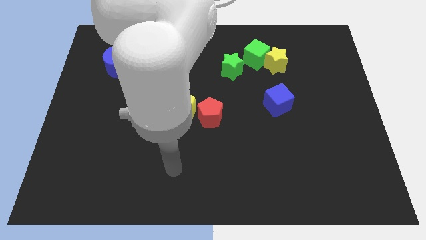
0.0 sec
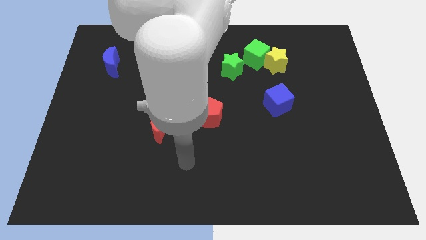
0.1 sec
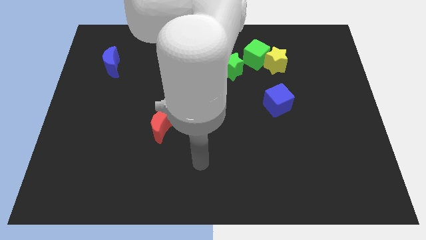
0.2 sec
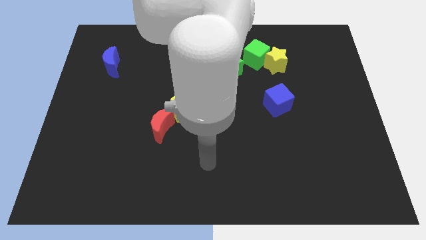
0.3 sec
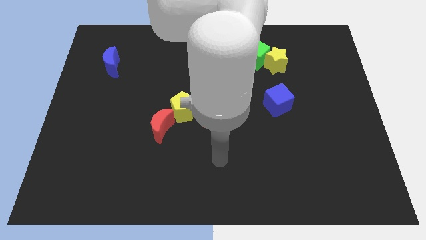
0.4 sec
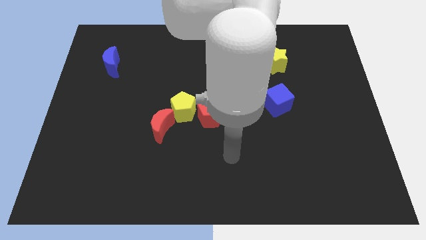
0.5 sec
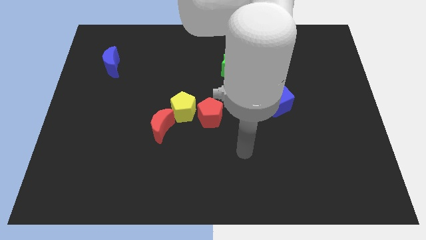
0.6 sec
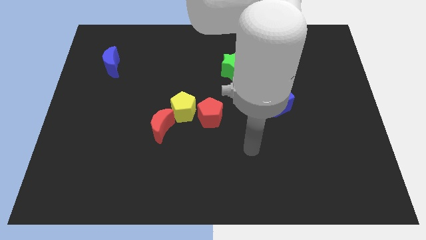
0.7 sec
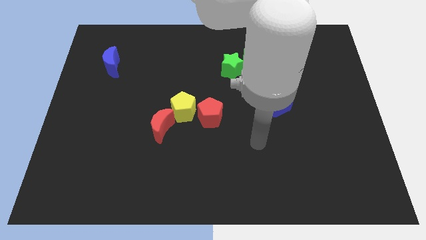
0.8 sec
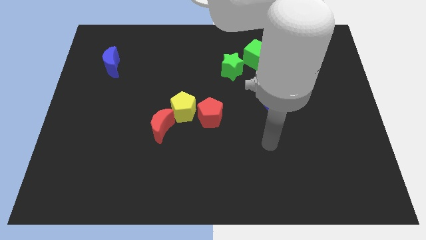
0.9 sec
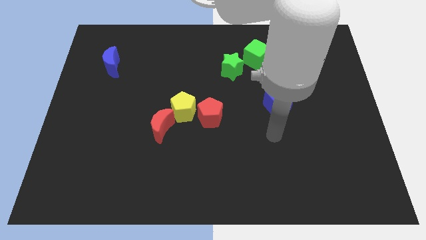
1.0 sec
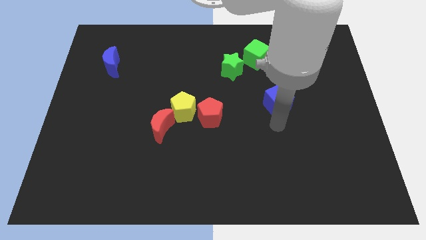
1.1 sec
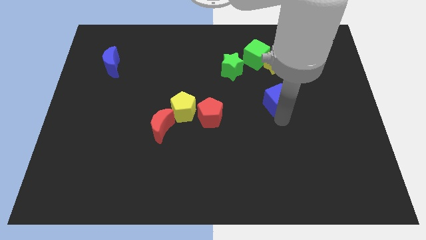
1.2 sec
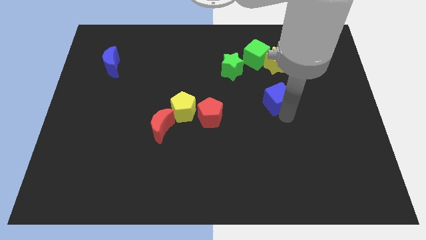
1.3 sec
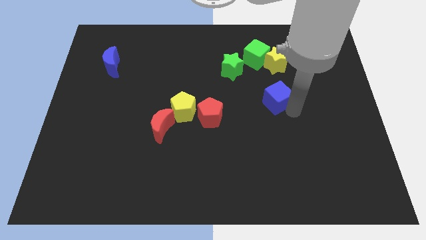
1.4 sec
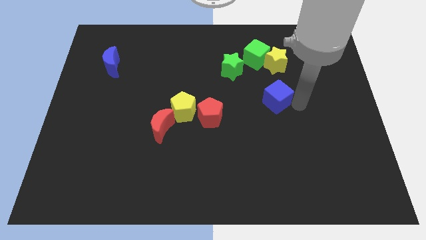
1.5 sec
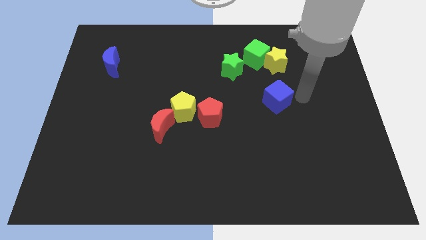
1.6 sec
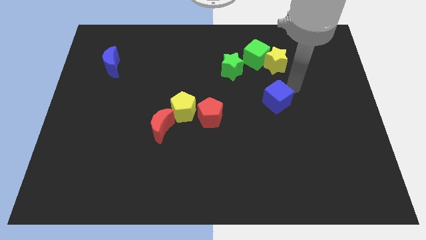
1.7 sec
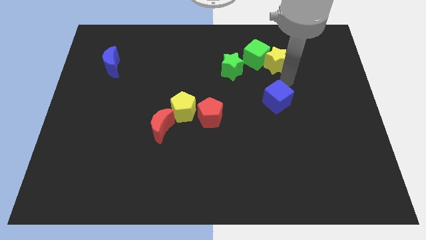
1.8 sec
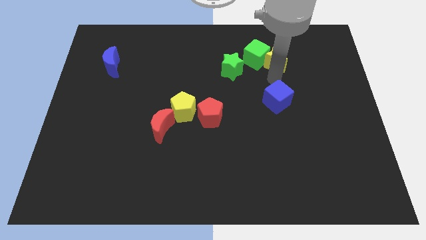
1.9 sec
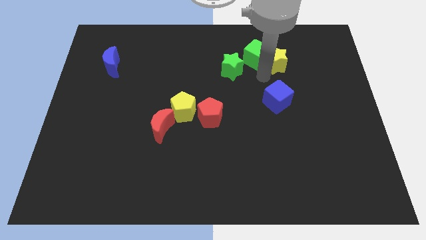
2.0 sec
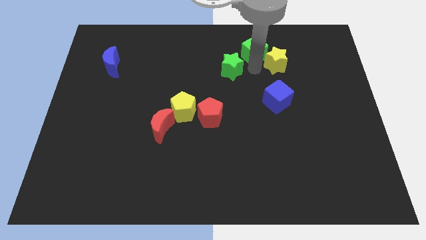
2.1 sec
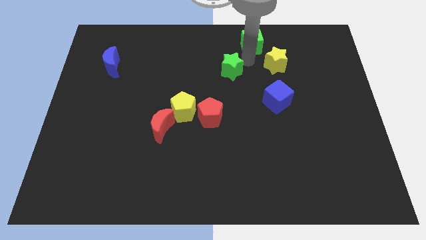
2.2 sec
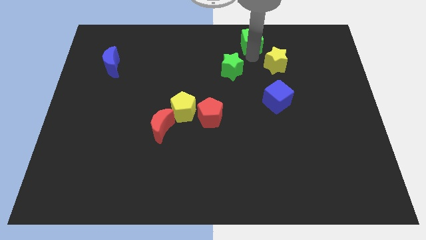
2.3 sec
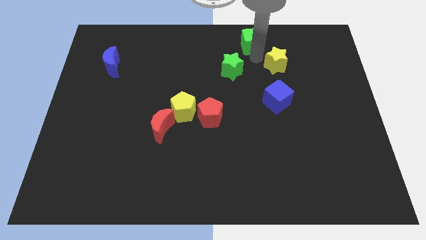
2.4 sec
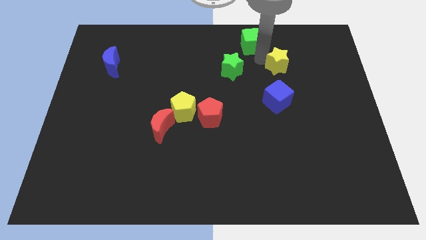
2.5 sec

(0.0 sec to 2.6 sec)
separate the yellow star from the green cube

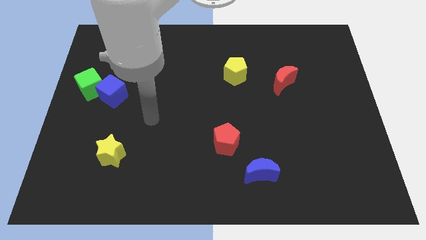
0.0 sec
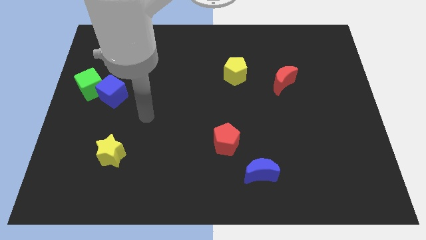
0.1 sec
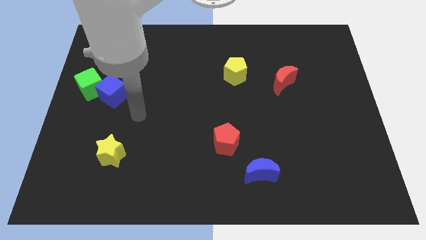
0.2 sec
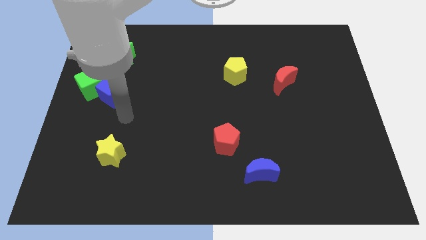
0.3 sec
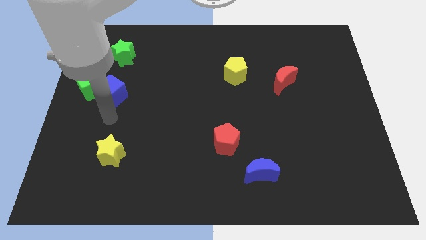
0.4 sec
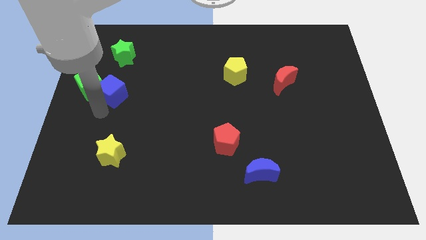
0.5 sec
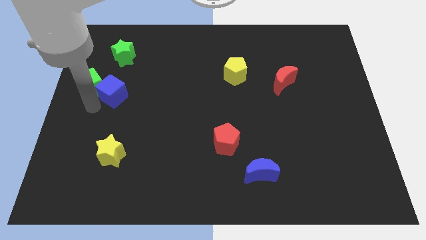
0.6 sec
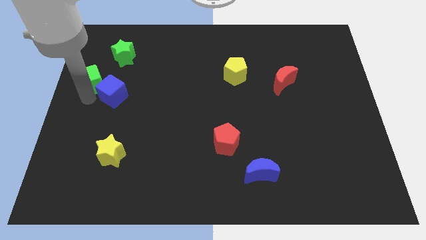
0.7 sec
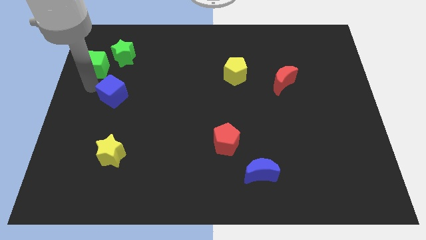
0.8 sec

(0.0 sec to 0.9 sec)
move the blue cube away from the green cube

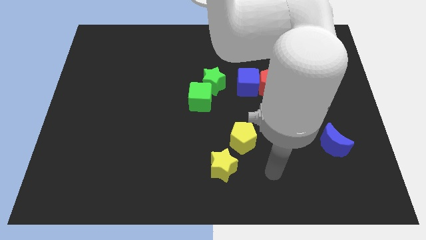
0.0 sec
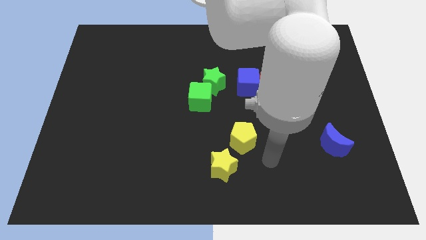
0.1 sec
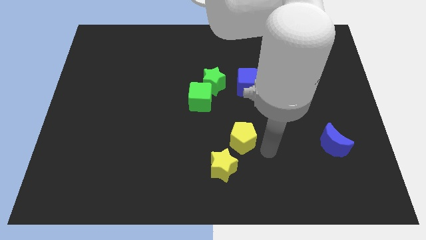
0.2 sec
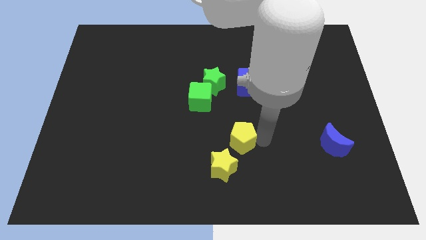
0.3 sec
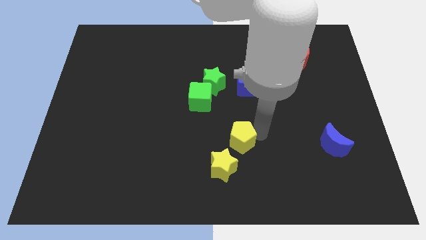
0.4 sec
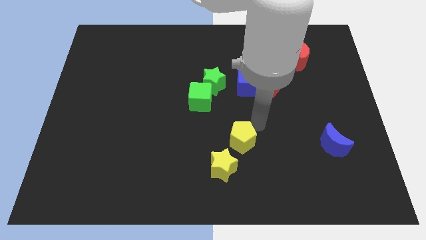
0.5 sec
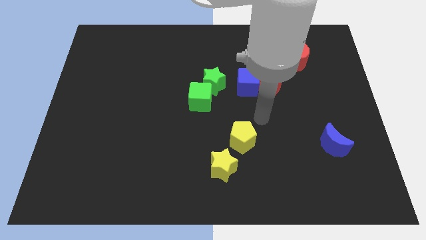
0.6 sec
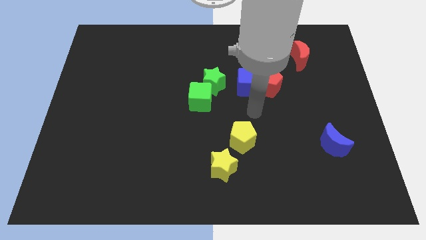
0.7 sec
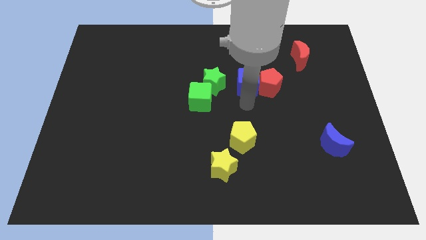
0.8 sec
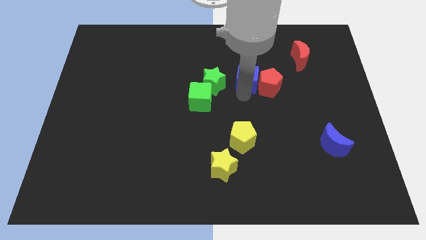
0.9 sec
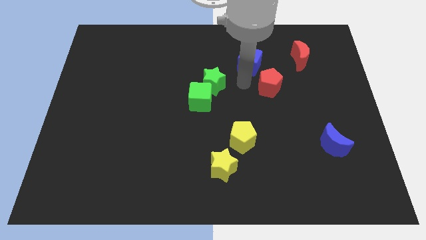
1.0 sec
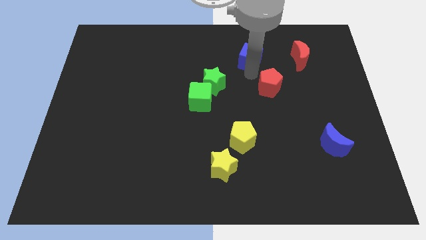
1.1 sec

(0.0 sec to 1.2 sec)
pull the red pentagon apart from the blue cube

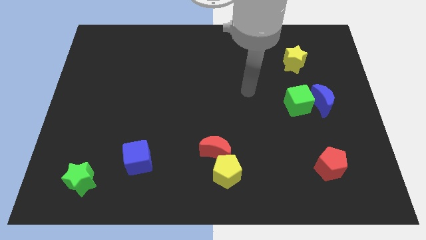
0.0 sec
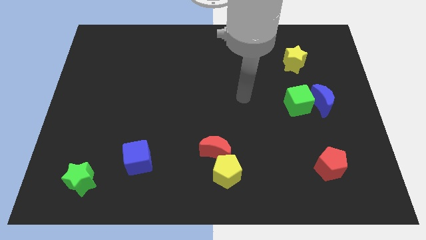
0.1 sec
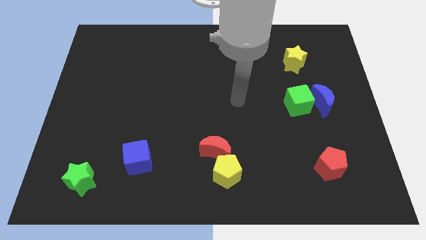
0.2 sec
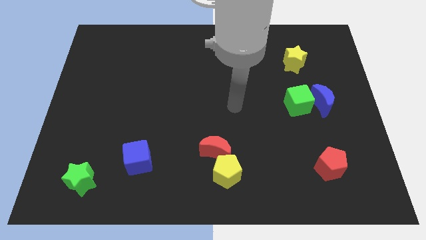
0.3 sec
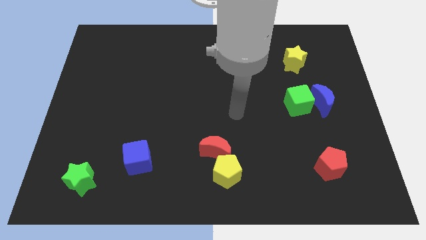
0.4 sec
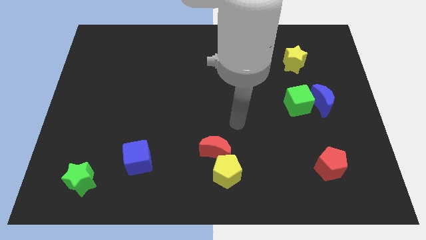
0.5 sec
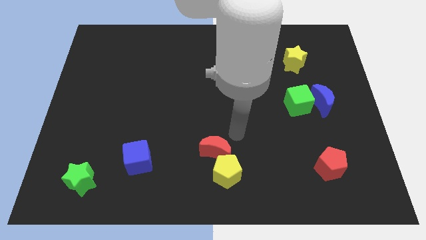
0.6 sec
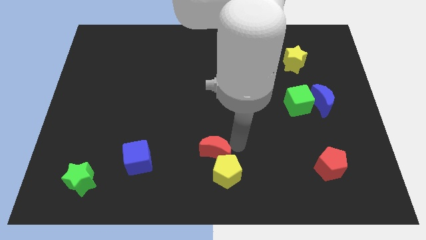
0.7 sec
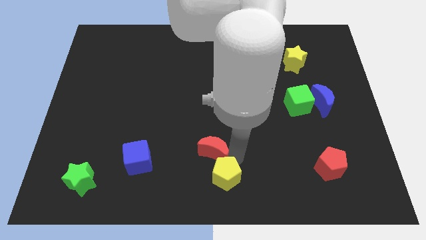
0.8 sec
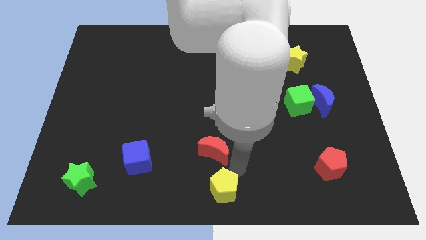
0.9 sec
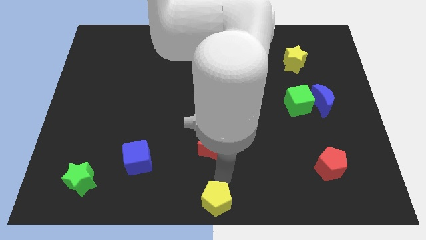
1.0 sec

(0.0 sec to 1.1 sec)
move the red moon away from the yellow pentagon

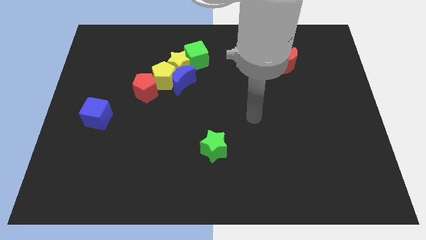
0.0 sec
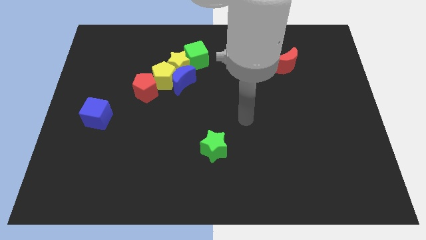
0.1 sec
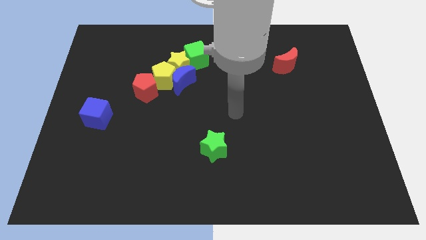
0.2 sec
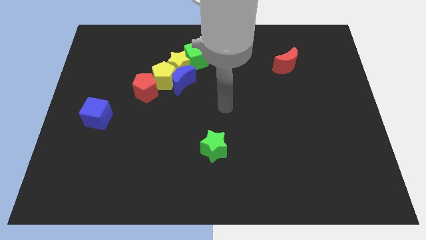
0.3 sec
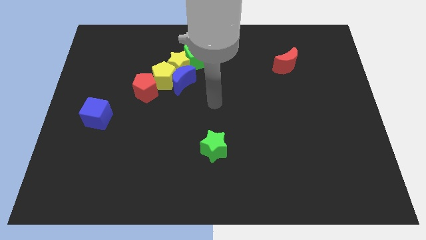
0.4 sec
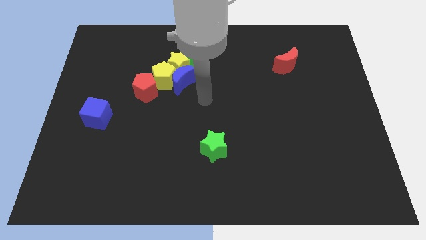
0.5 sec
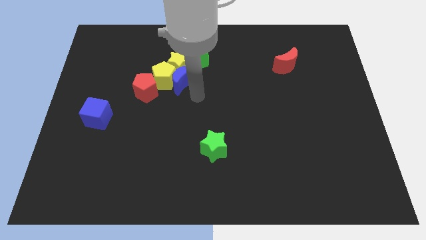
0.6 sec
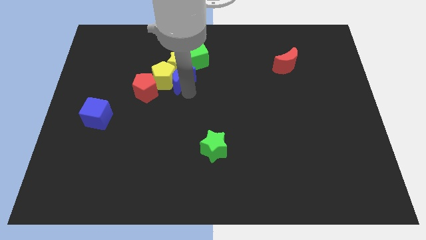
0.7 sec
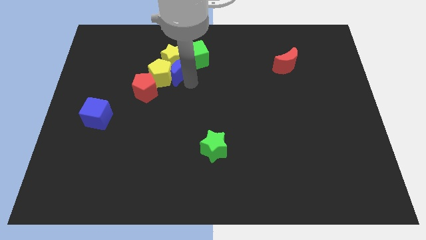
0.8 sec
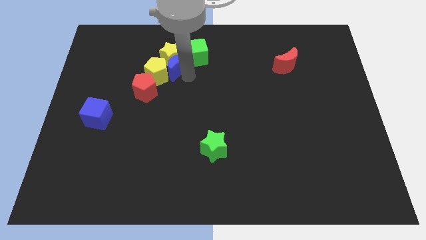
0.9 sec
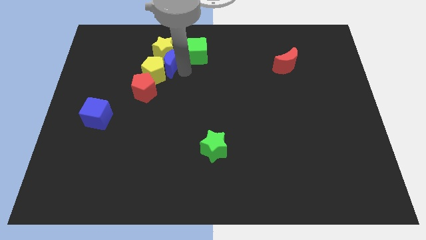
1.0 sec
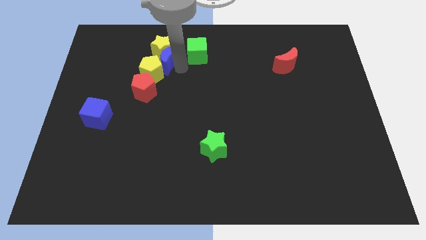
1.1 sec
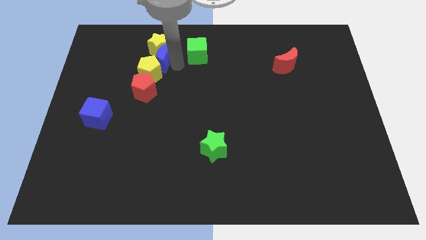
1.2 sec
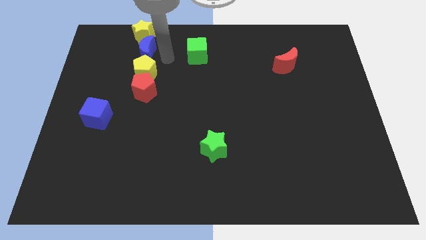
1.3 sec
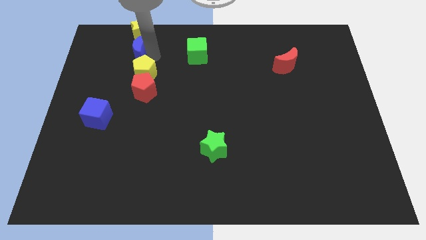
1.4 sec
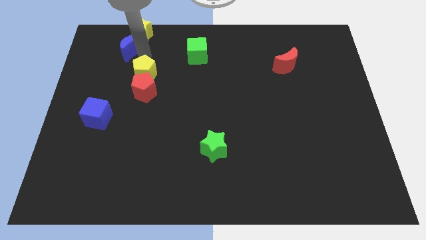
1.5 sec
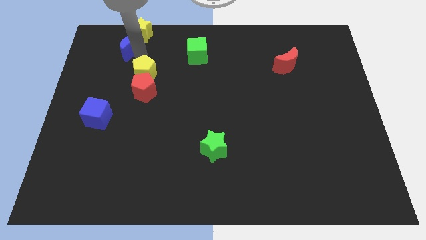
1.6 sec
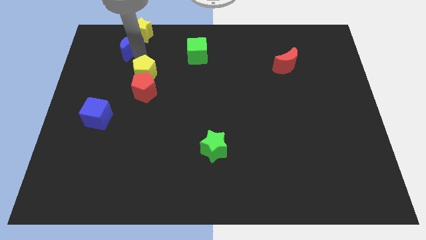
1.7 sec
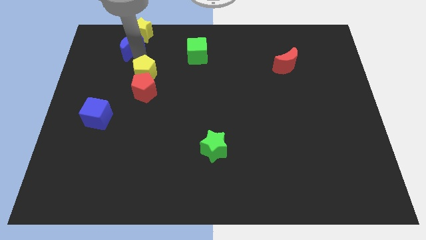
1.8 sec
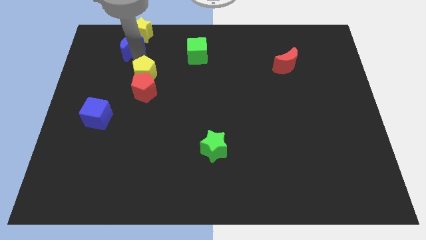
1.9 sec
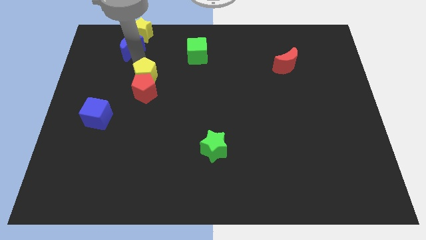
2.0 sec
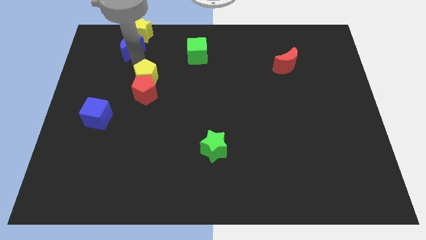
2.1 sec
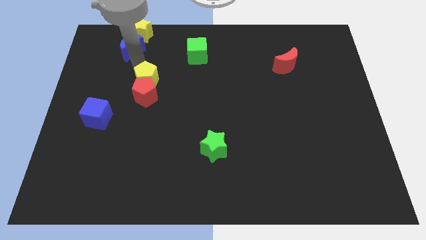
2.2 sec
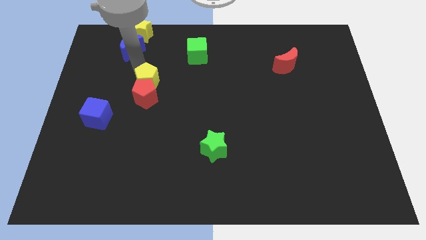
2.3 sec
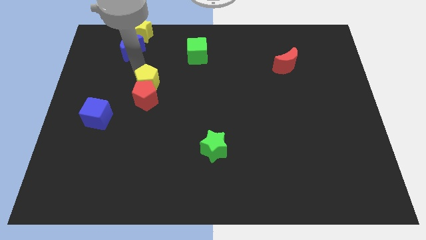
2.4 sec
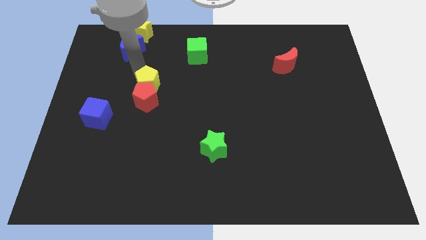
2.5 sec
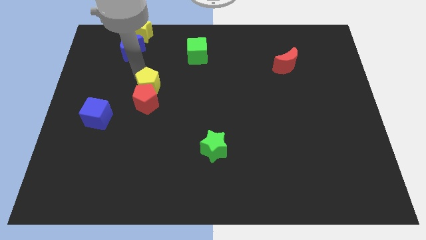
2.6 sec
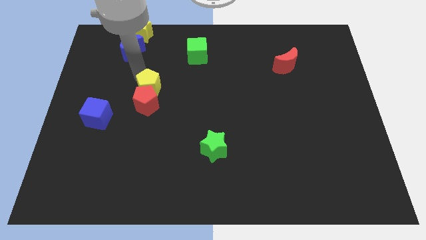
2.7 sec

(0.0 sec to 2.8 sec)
separate the yellow pentagon from the group

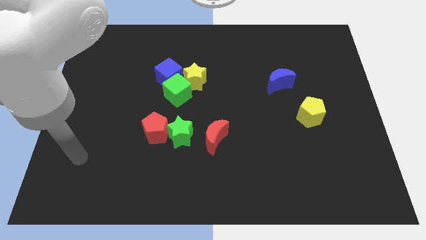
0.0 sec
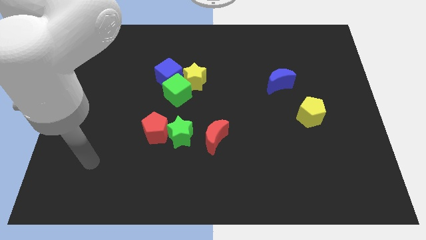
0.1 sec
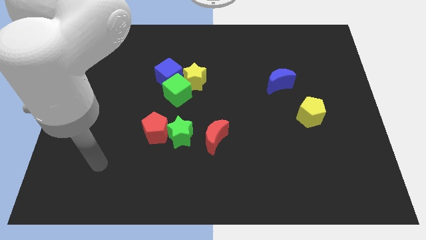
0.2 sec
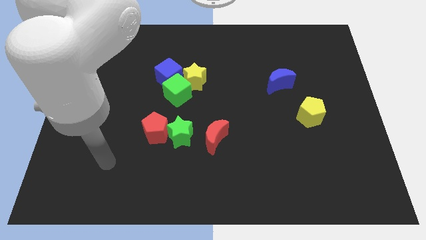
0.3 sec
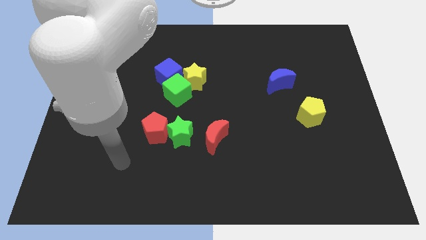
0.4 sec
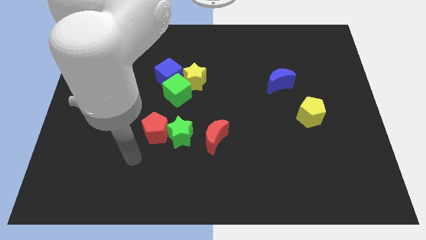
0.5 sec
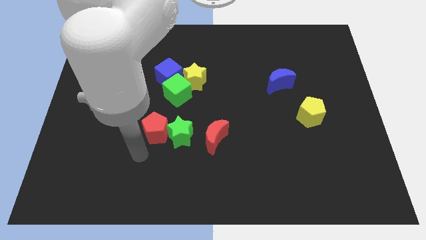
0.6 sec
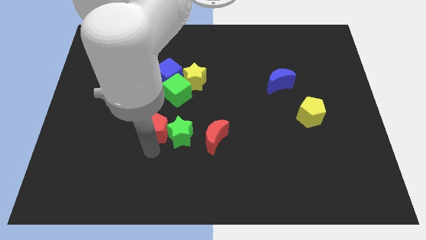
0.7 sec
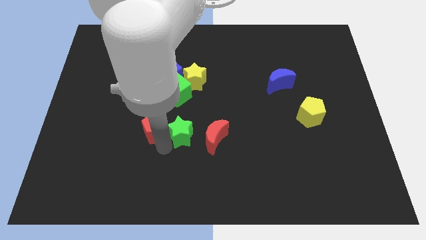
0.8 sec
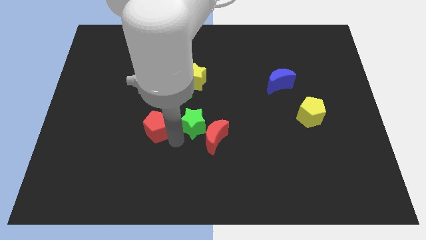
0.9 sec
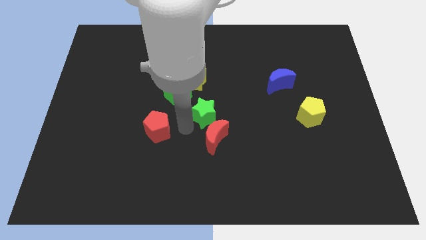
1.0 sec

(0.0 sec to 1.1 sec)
pull the red pentagon apart from the green star
